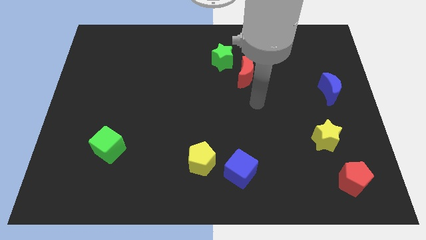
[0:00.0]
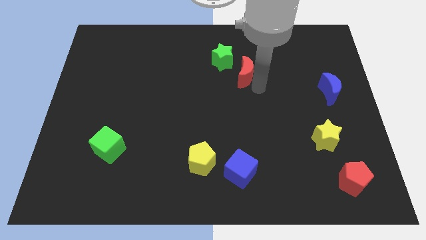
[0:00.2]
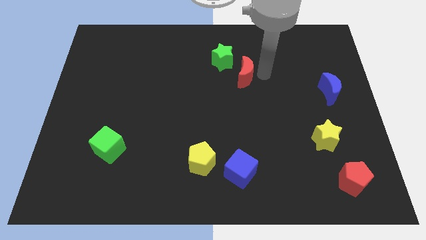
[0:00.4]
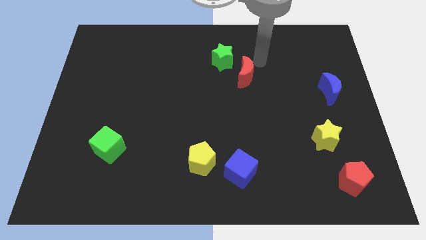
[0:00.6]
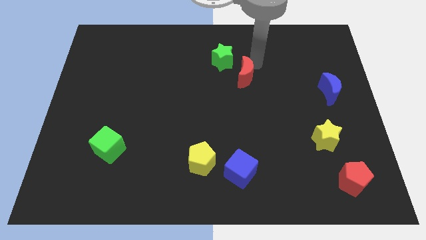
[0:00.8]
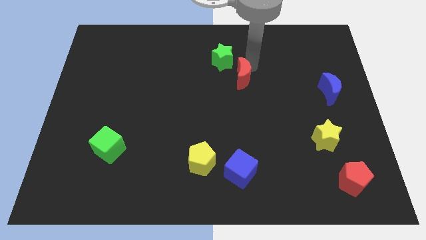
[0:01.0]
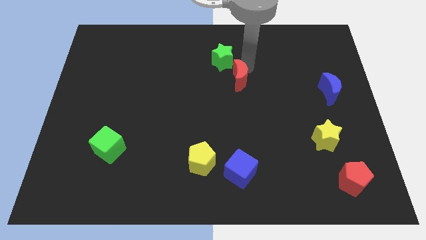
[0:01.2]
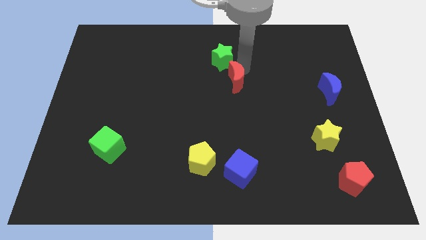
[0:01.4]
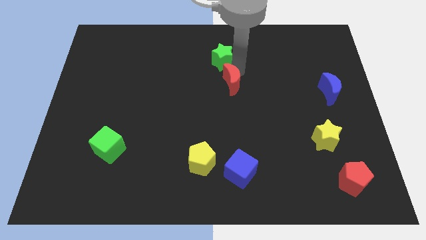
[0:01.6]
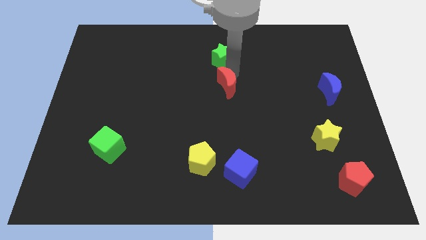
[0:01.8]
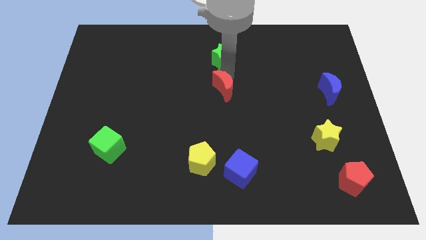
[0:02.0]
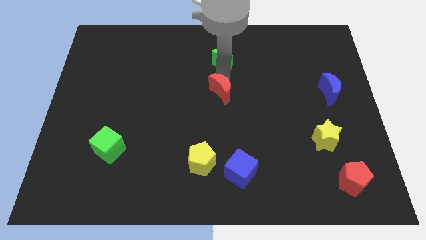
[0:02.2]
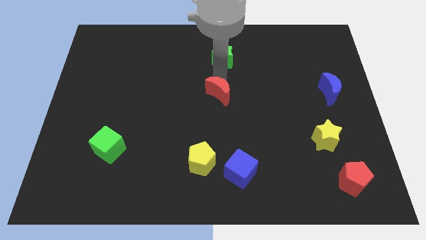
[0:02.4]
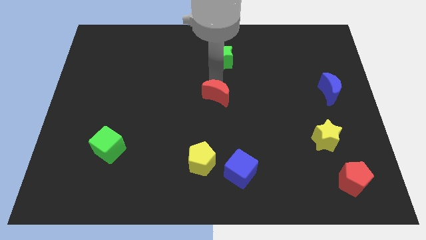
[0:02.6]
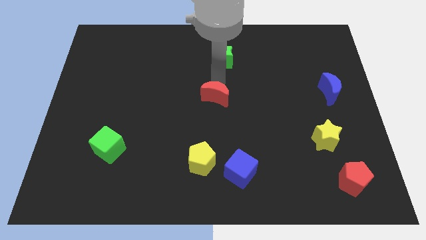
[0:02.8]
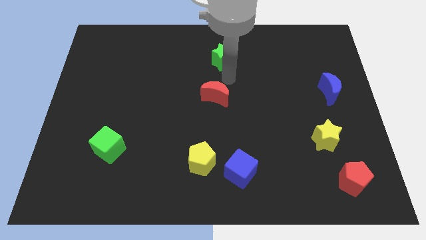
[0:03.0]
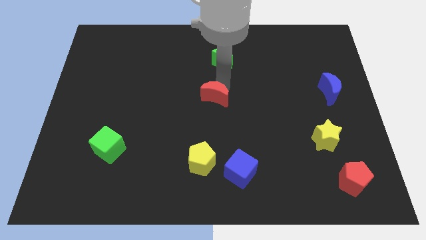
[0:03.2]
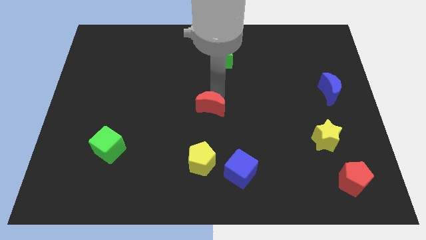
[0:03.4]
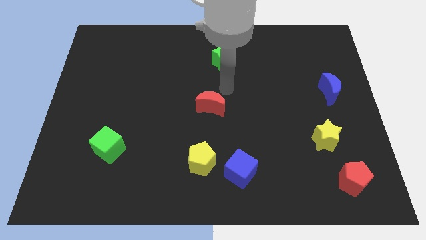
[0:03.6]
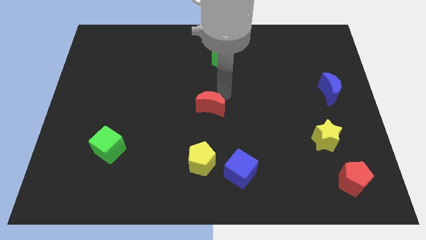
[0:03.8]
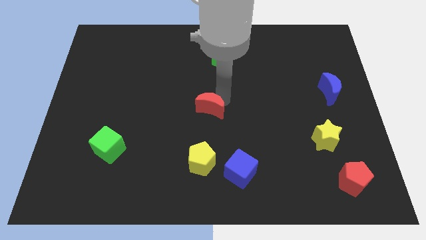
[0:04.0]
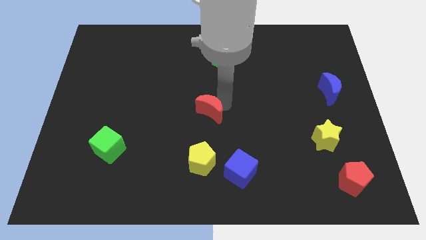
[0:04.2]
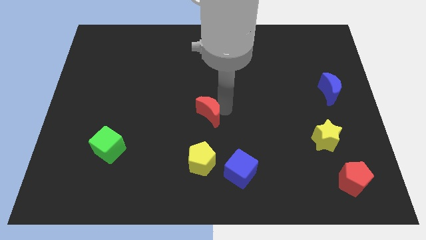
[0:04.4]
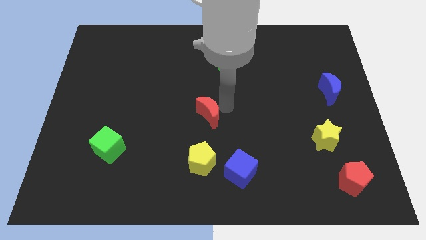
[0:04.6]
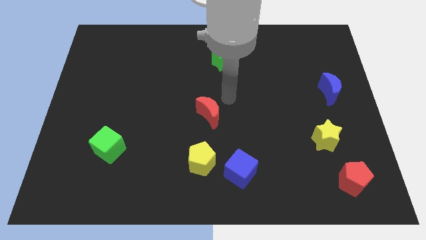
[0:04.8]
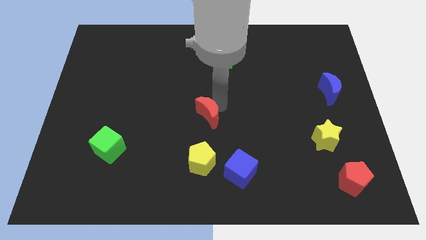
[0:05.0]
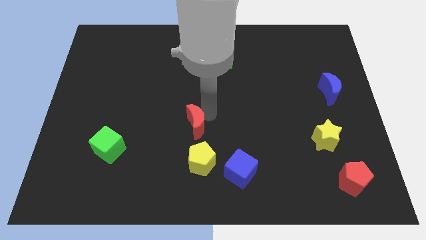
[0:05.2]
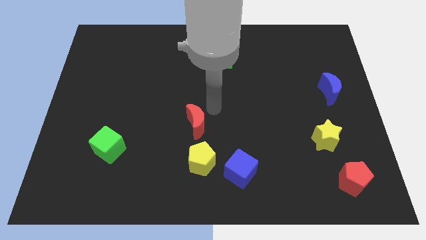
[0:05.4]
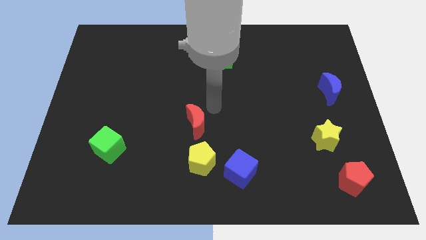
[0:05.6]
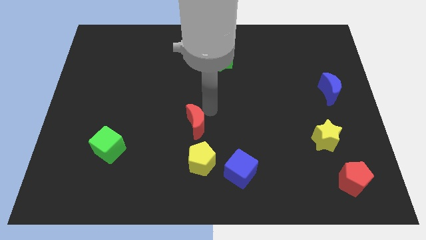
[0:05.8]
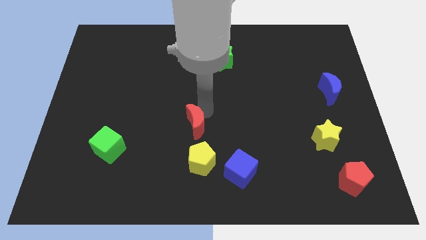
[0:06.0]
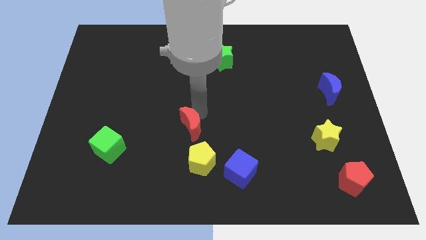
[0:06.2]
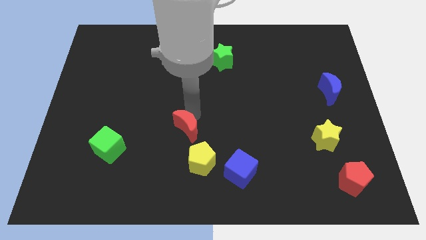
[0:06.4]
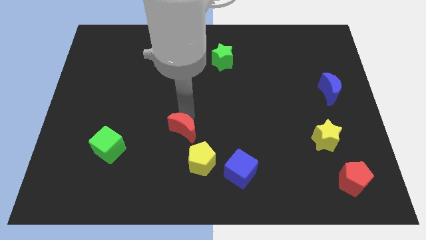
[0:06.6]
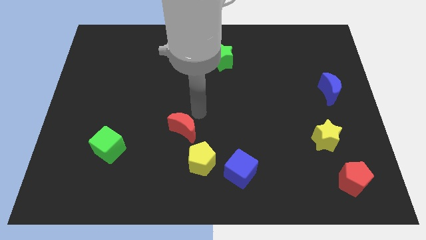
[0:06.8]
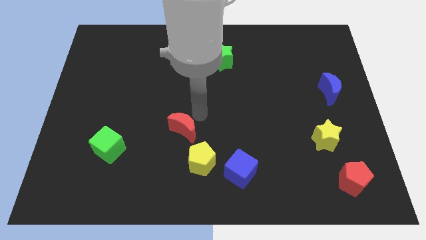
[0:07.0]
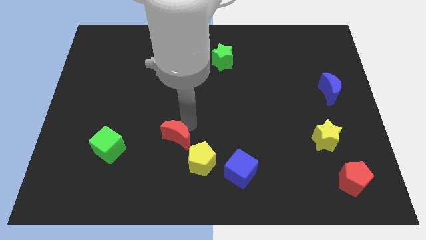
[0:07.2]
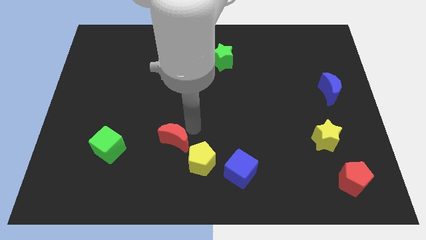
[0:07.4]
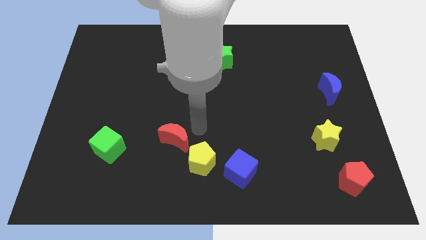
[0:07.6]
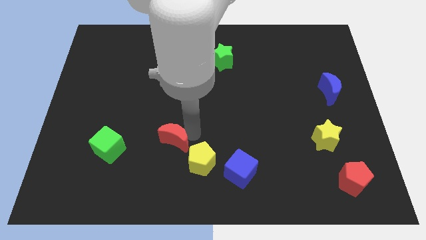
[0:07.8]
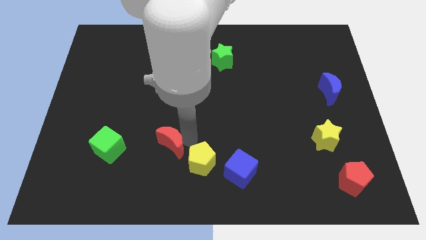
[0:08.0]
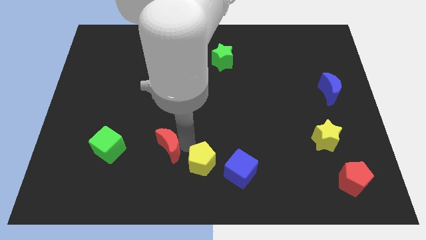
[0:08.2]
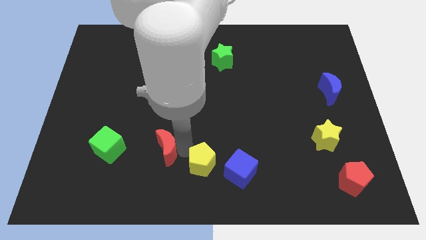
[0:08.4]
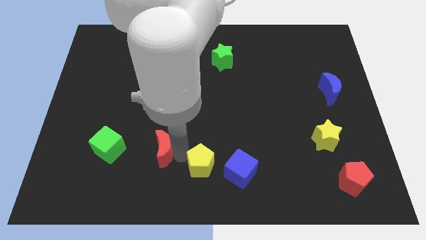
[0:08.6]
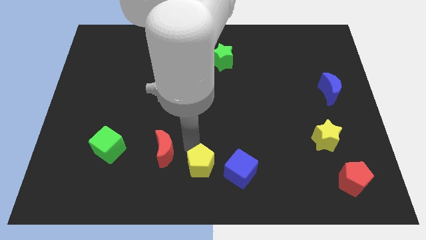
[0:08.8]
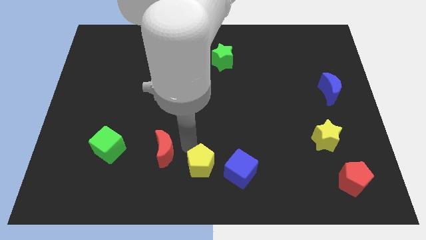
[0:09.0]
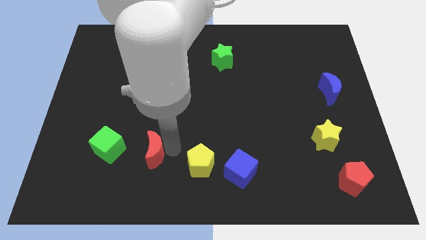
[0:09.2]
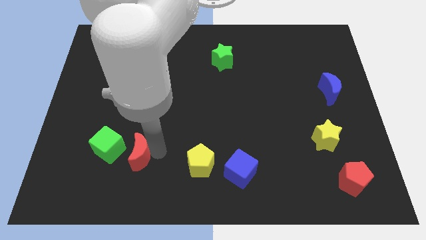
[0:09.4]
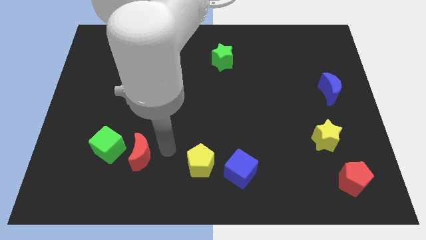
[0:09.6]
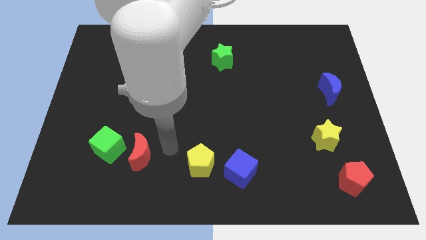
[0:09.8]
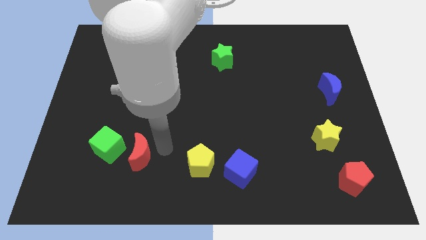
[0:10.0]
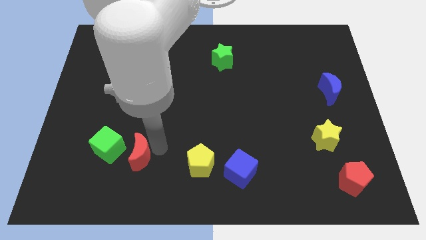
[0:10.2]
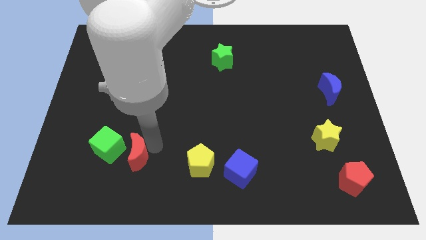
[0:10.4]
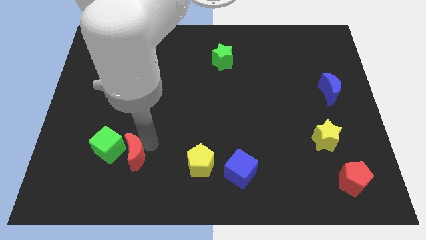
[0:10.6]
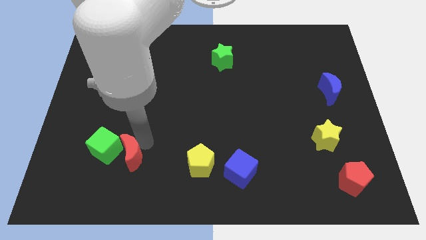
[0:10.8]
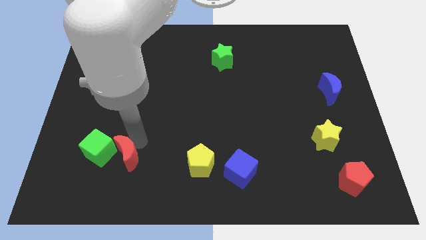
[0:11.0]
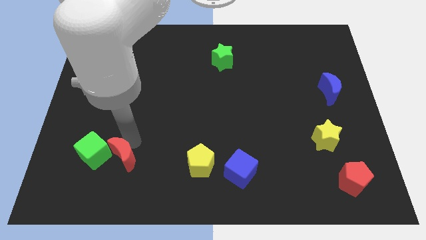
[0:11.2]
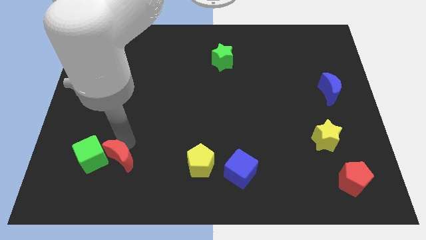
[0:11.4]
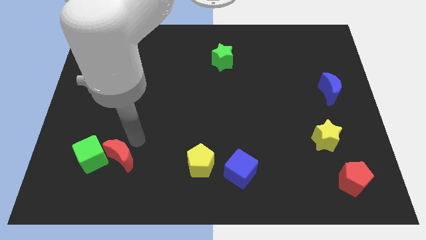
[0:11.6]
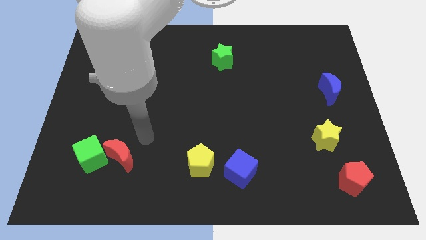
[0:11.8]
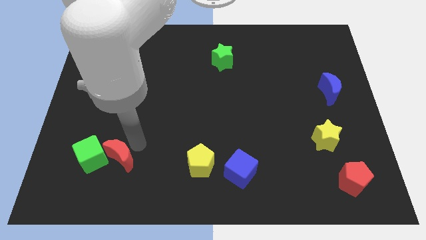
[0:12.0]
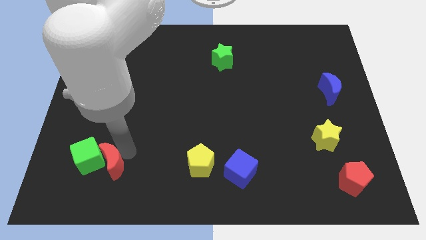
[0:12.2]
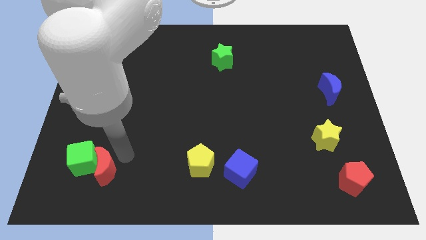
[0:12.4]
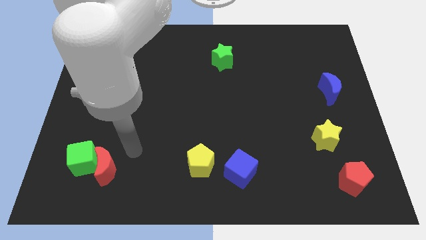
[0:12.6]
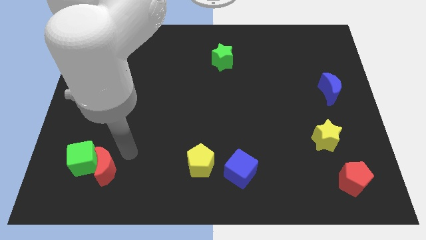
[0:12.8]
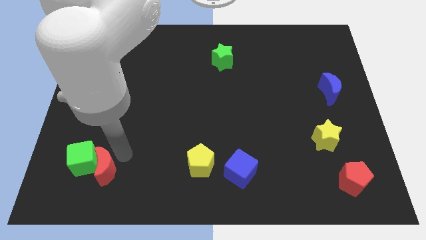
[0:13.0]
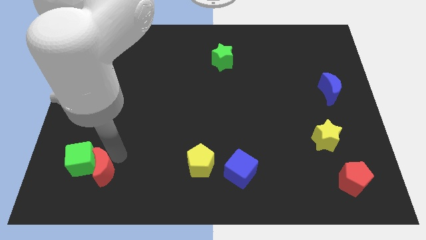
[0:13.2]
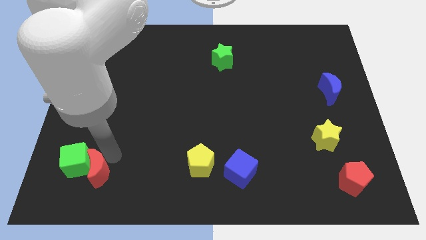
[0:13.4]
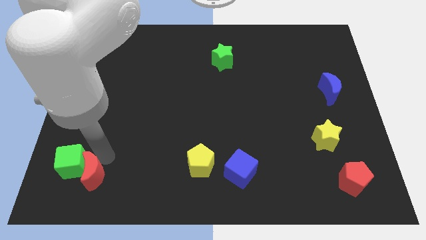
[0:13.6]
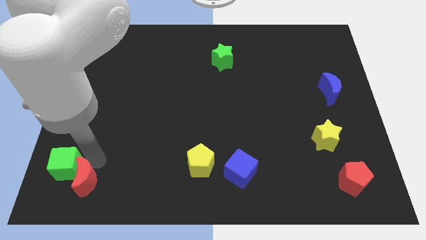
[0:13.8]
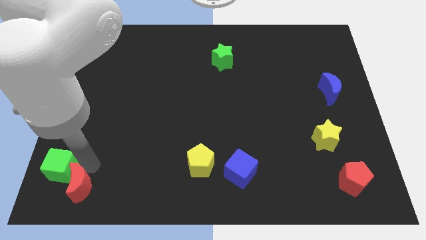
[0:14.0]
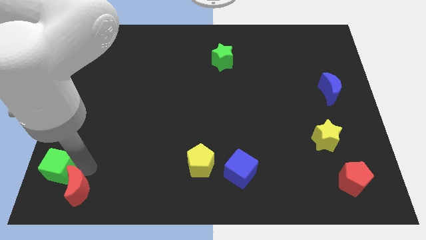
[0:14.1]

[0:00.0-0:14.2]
put the red moon to the bottom left of the board

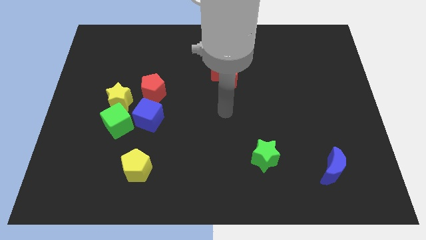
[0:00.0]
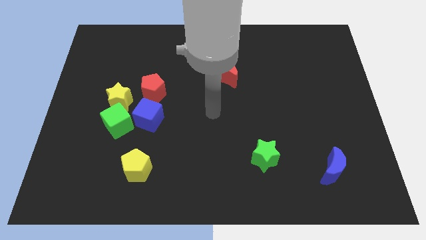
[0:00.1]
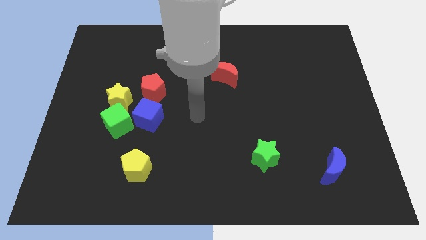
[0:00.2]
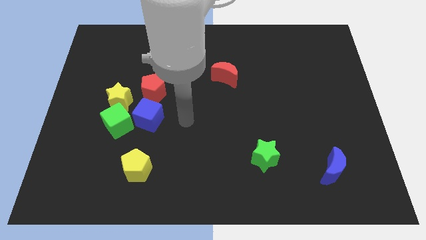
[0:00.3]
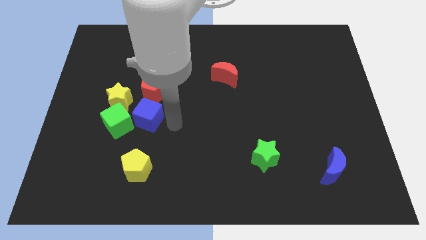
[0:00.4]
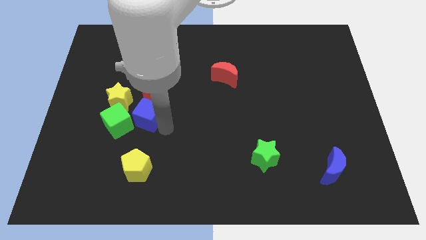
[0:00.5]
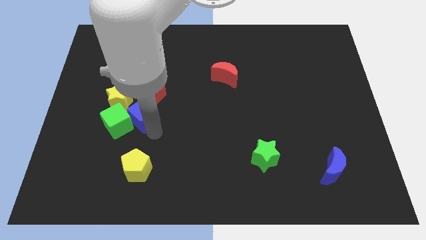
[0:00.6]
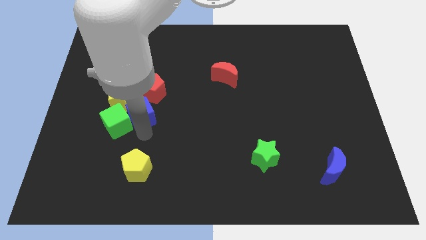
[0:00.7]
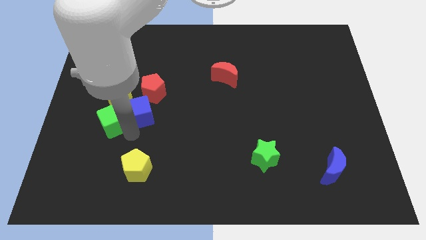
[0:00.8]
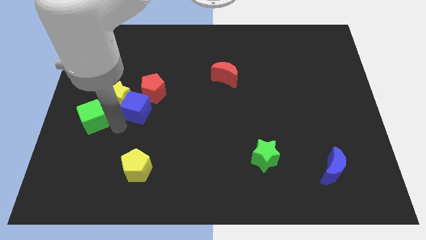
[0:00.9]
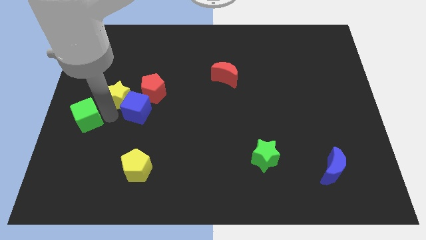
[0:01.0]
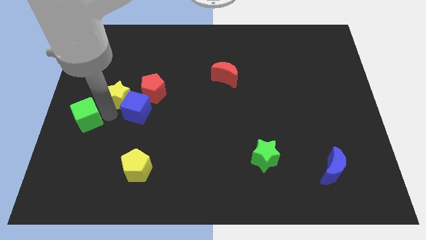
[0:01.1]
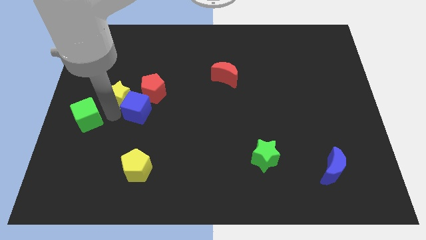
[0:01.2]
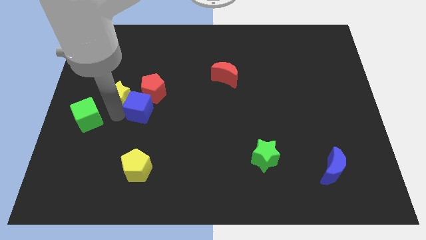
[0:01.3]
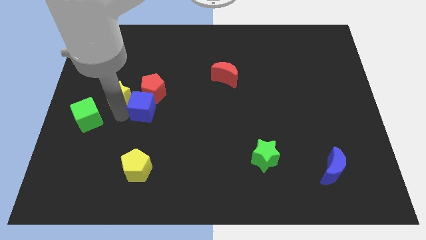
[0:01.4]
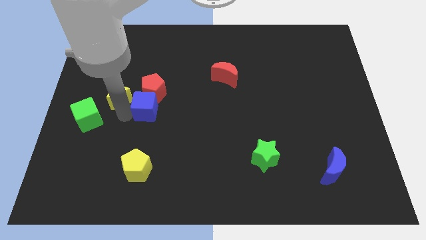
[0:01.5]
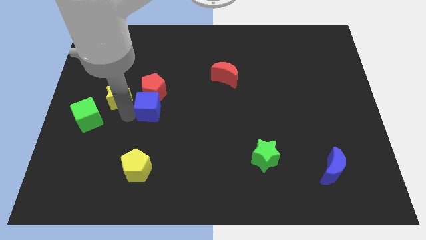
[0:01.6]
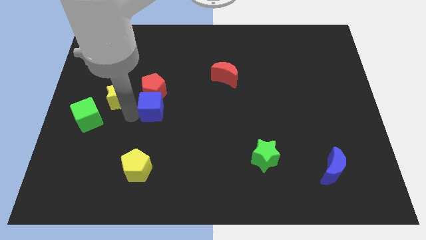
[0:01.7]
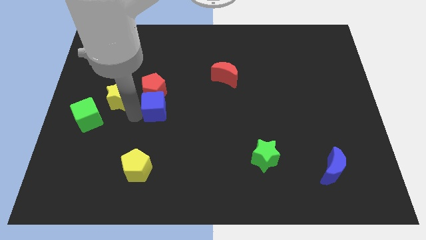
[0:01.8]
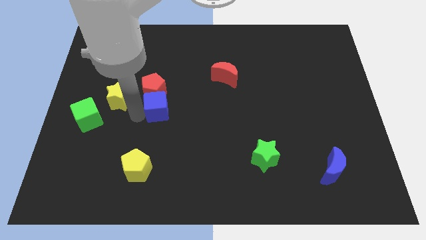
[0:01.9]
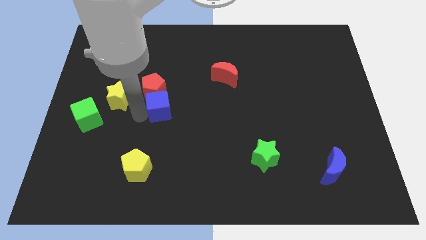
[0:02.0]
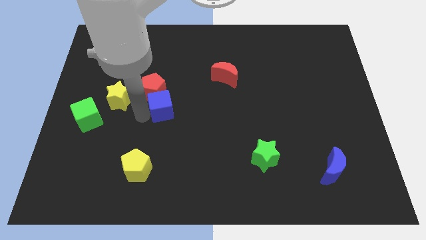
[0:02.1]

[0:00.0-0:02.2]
push the blue cube to the middle of the board
